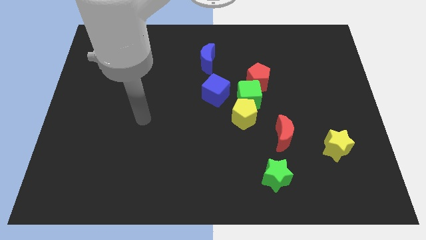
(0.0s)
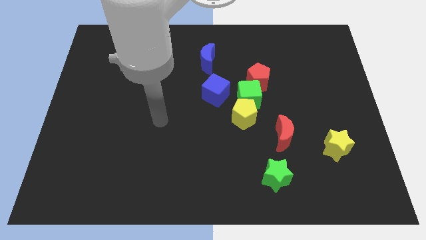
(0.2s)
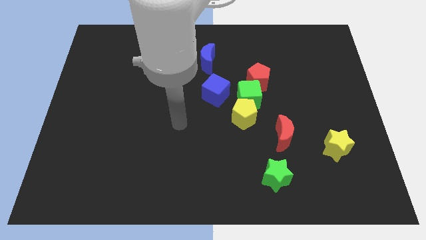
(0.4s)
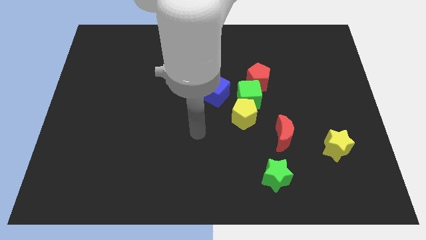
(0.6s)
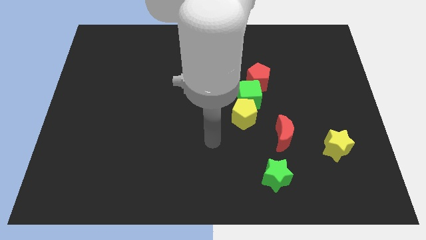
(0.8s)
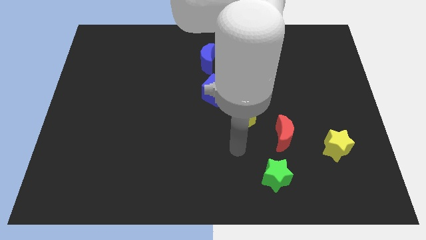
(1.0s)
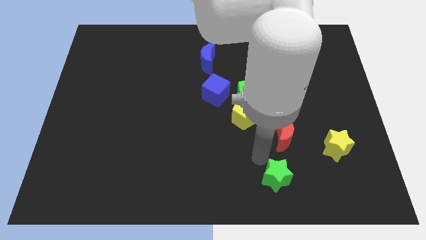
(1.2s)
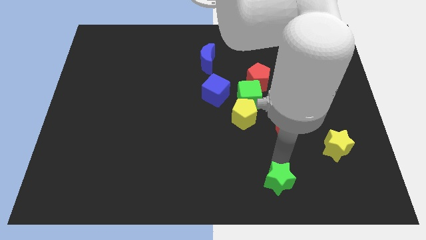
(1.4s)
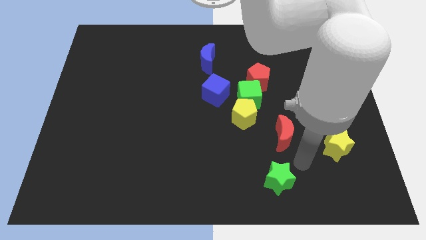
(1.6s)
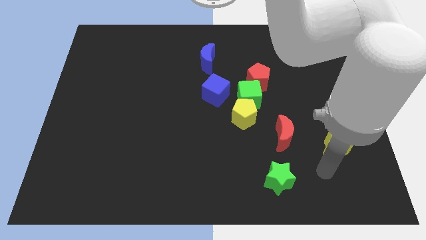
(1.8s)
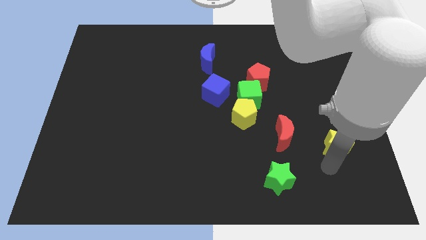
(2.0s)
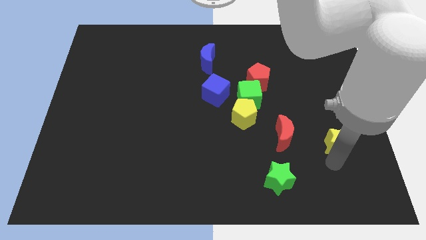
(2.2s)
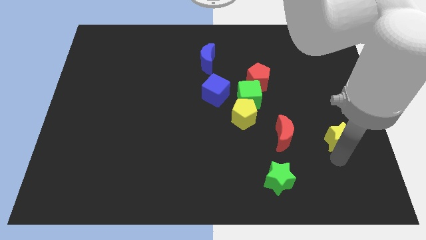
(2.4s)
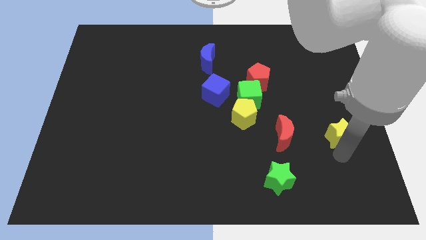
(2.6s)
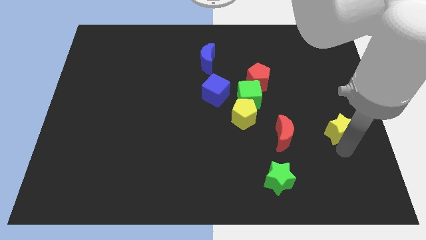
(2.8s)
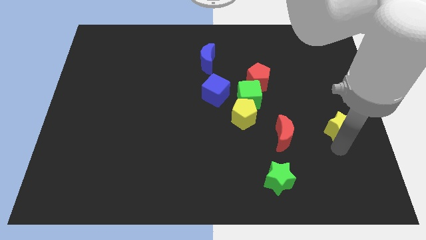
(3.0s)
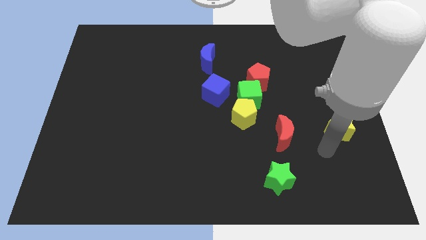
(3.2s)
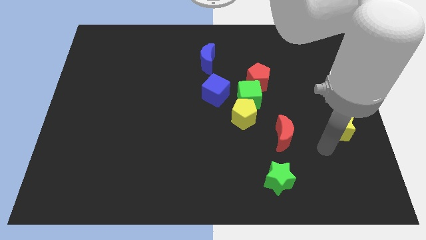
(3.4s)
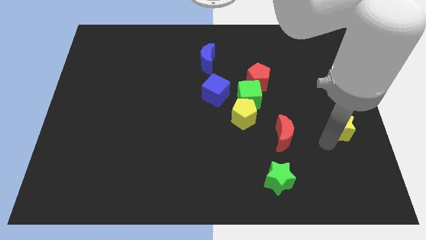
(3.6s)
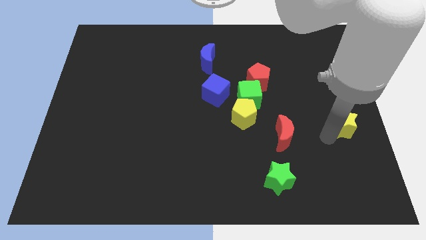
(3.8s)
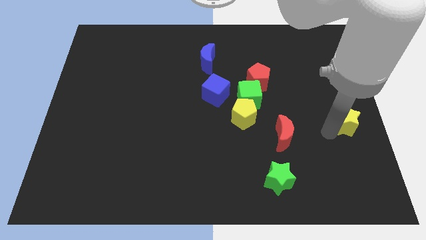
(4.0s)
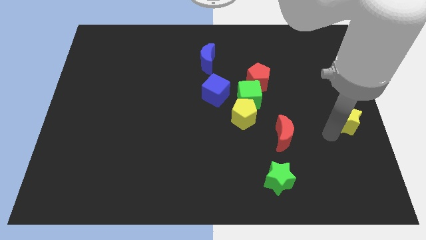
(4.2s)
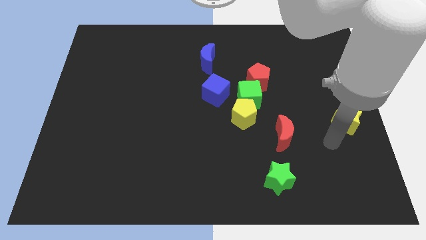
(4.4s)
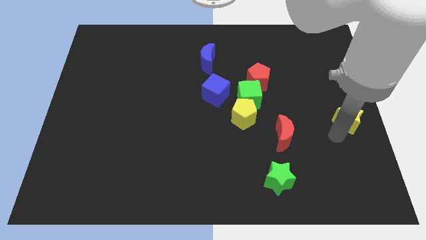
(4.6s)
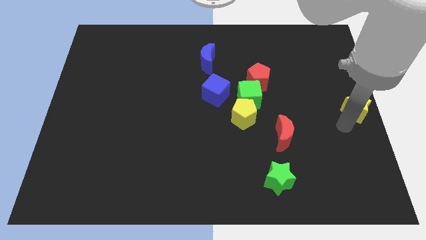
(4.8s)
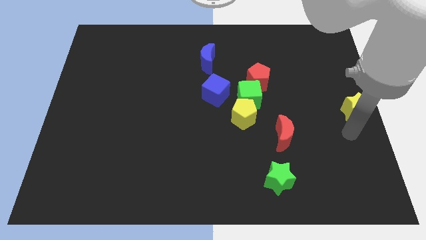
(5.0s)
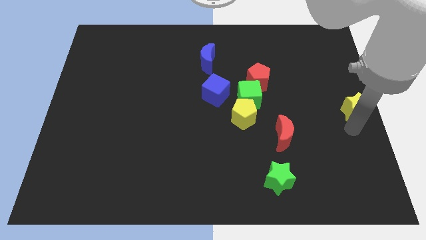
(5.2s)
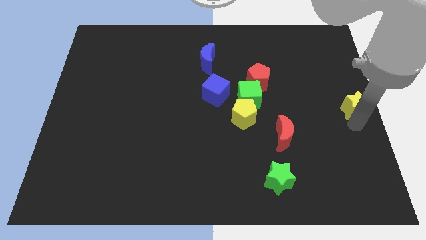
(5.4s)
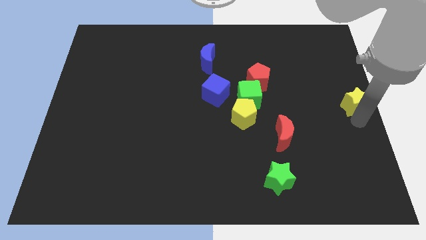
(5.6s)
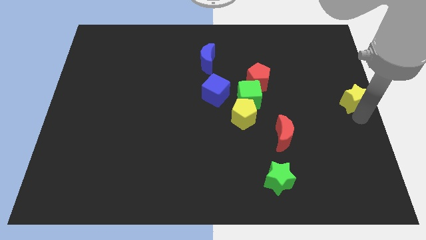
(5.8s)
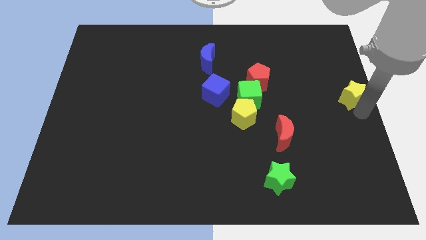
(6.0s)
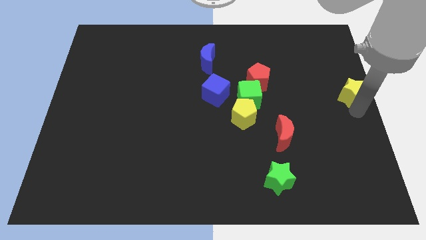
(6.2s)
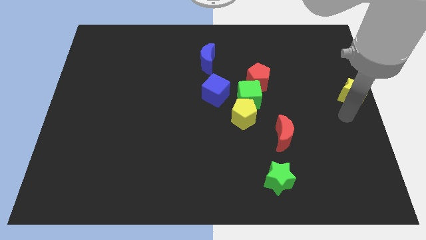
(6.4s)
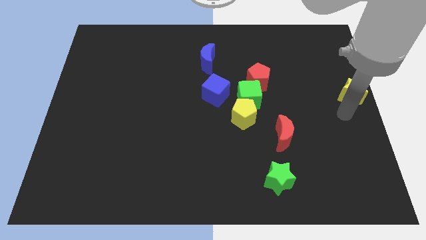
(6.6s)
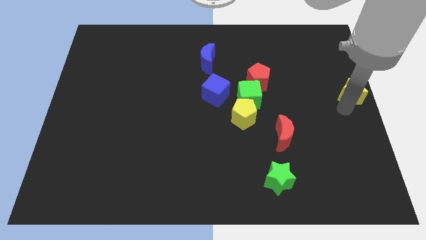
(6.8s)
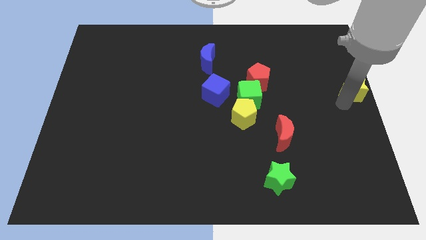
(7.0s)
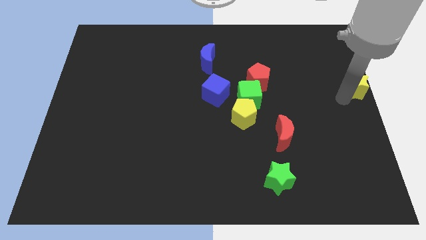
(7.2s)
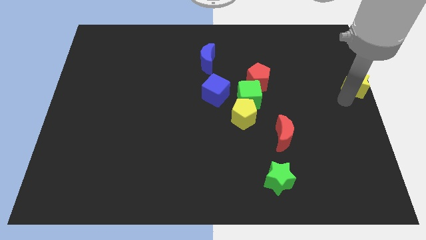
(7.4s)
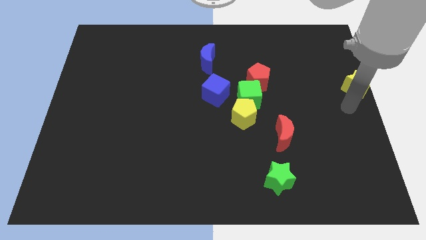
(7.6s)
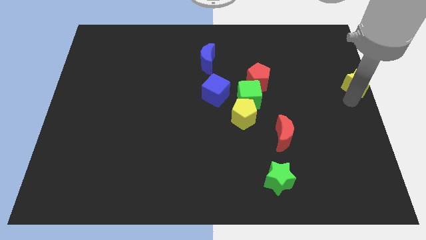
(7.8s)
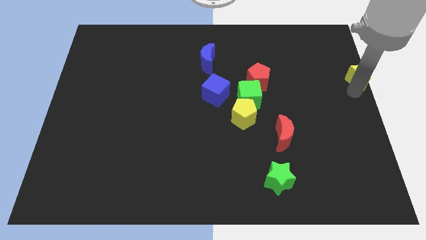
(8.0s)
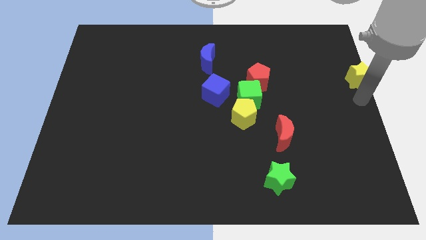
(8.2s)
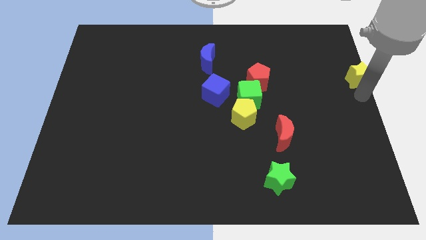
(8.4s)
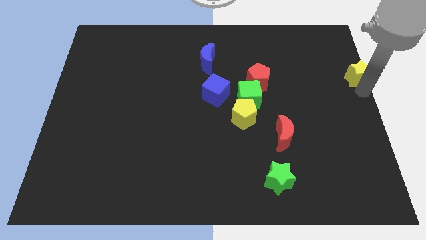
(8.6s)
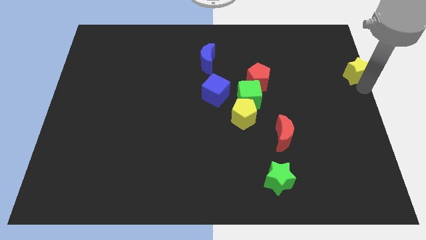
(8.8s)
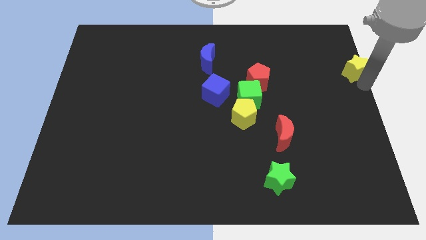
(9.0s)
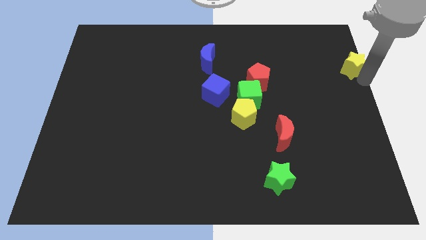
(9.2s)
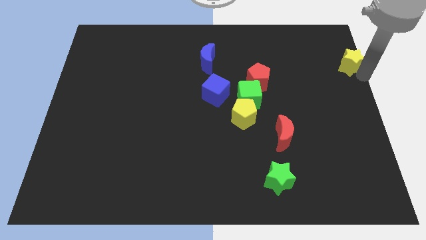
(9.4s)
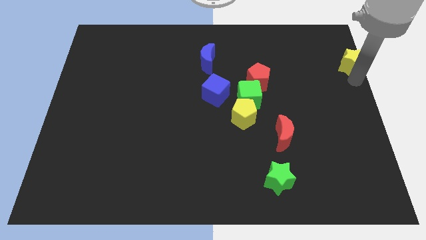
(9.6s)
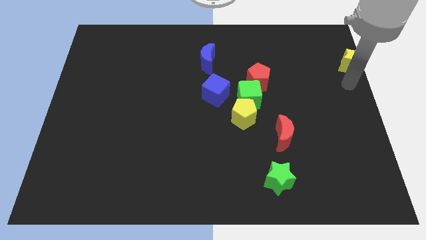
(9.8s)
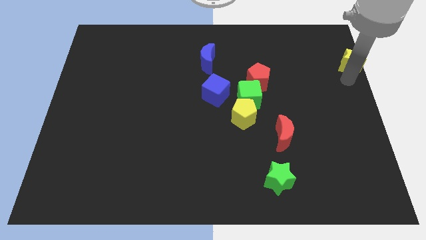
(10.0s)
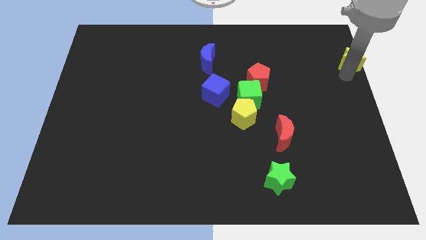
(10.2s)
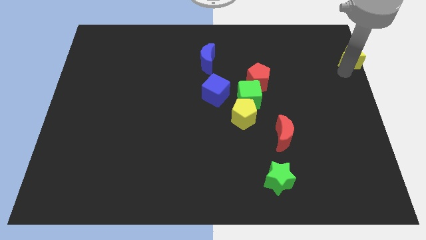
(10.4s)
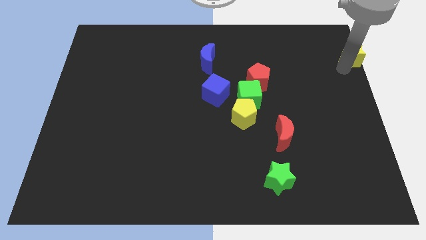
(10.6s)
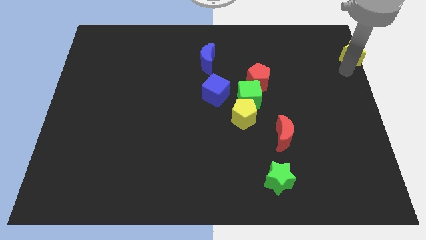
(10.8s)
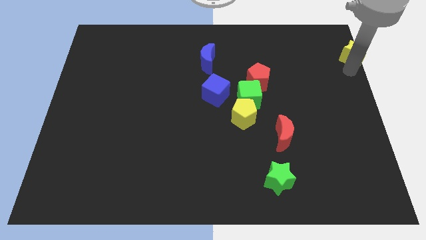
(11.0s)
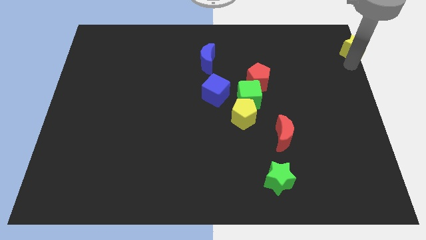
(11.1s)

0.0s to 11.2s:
slide the yellow star to the top right
